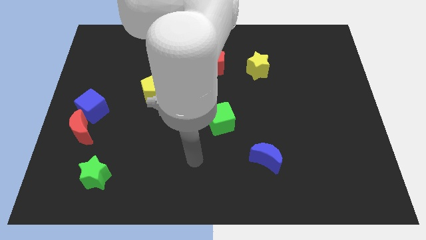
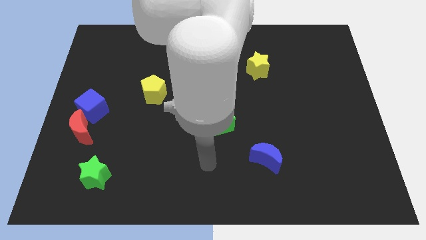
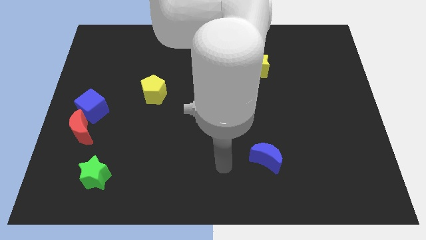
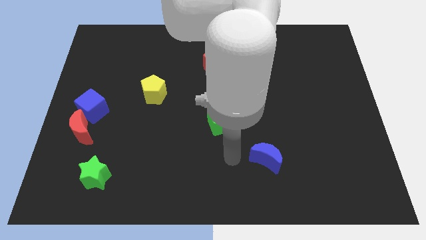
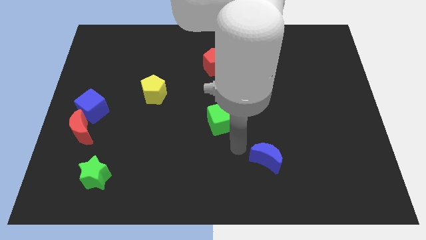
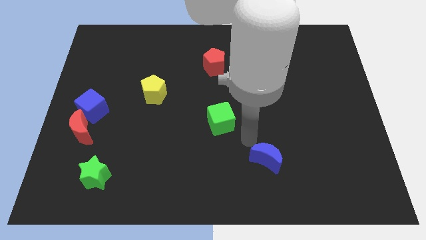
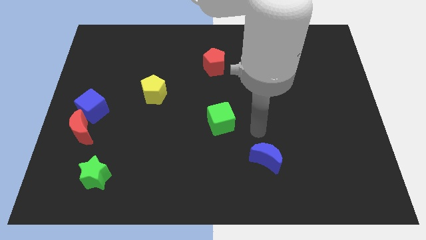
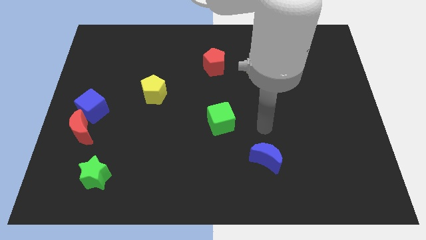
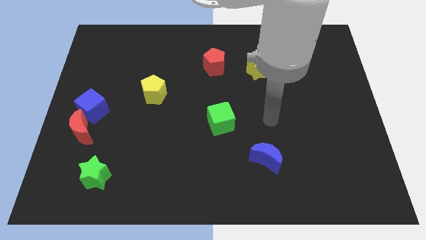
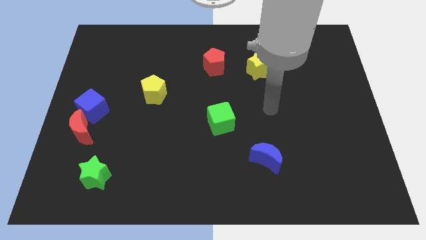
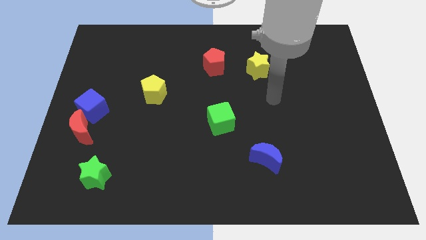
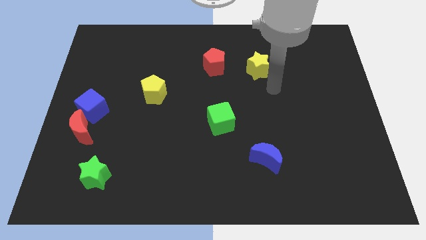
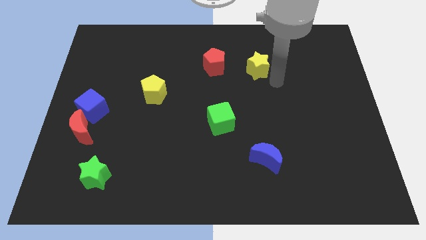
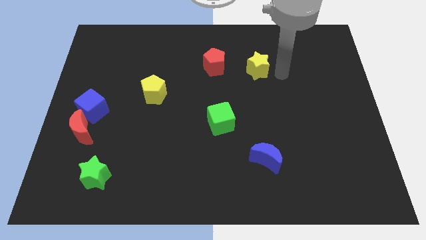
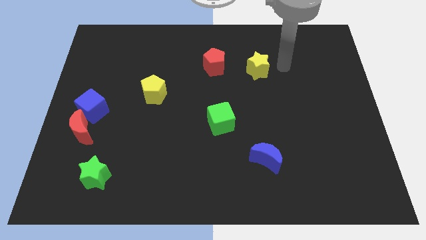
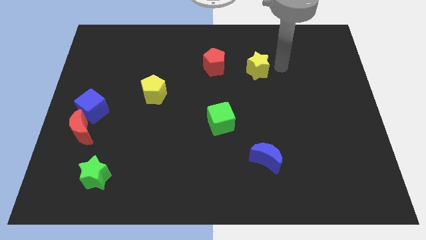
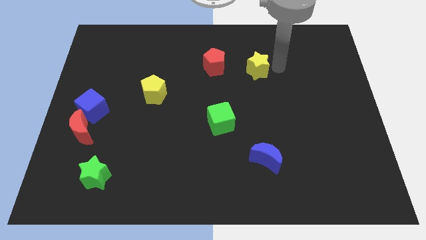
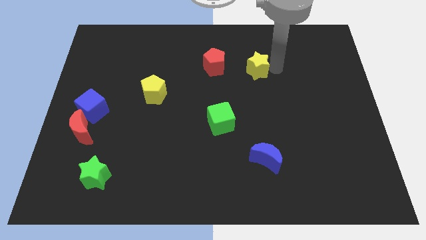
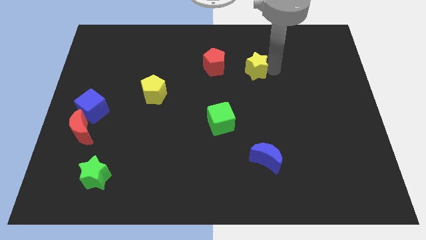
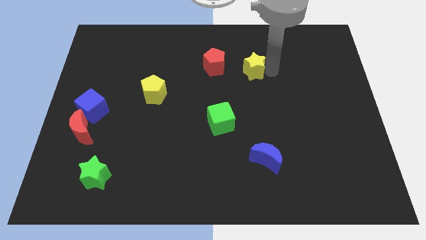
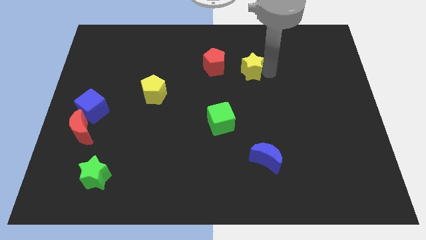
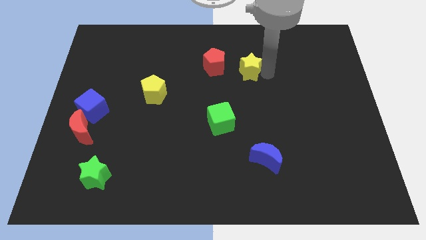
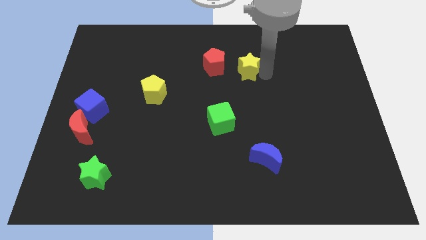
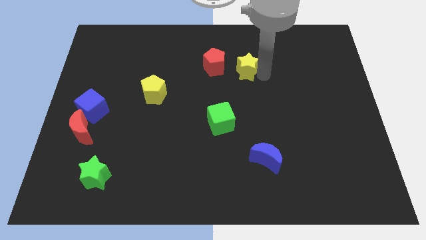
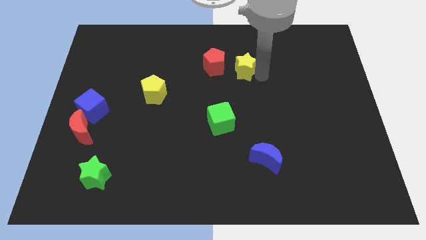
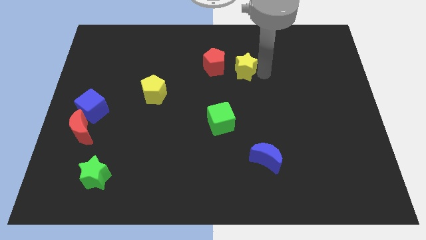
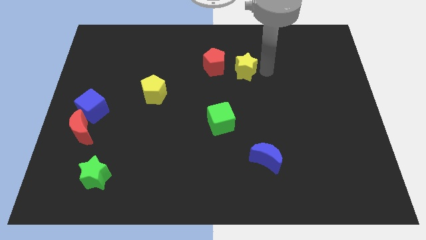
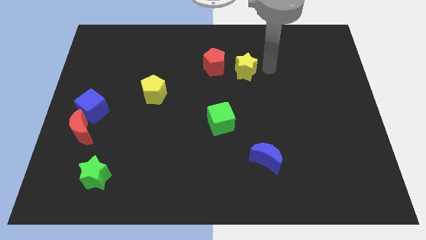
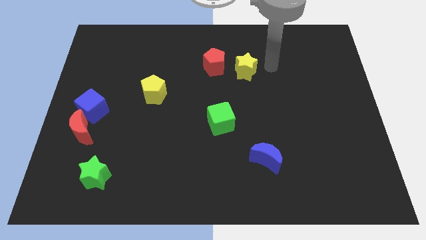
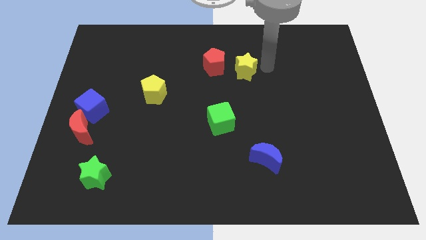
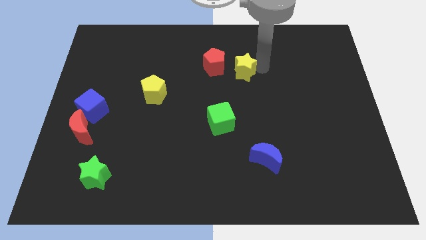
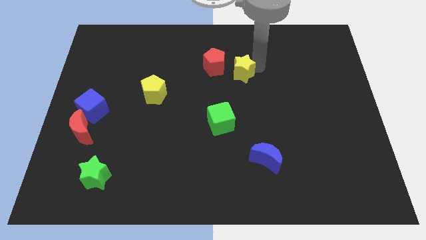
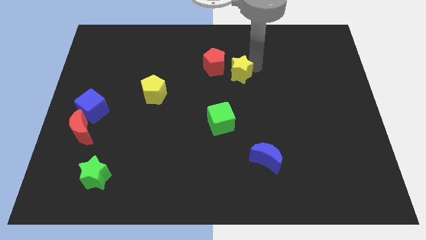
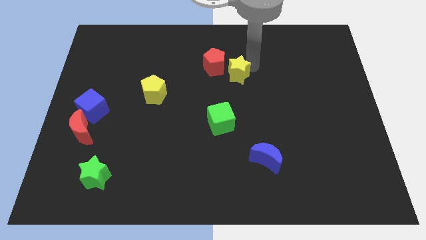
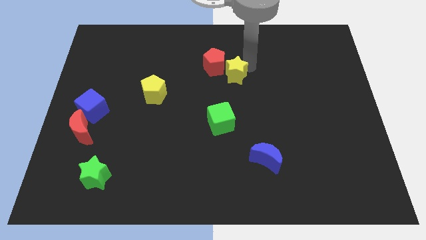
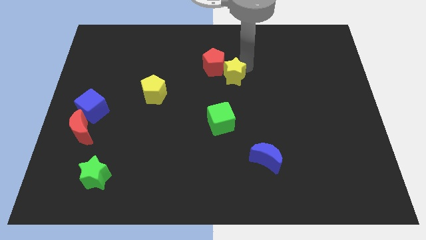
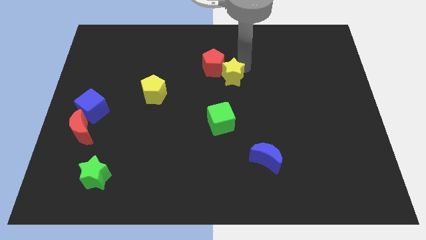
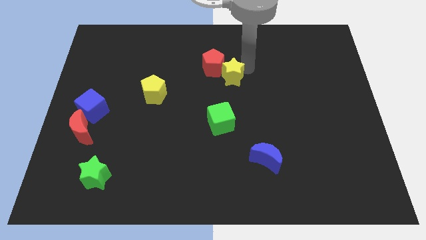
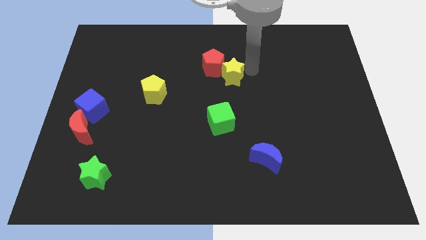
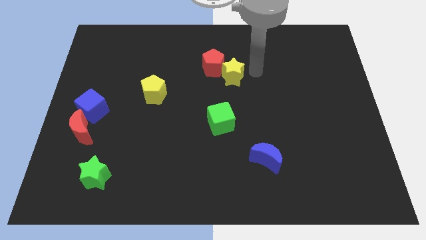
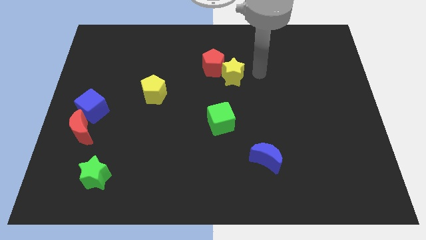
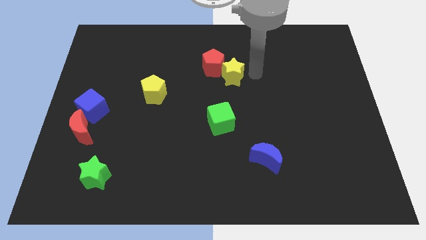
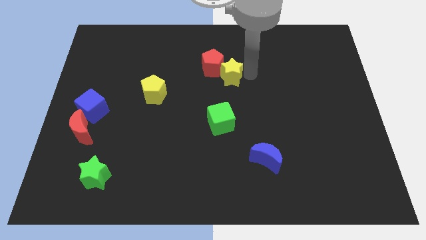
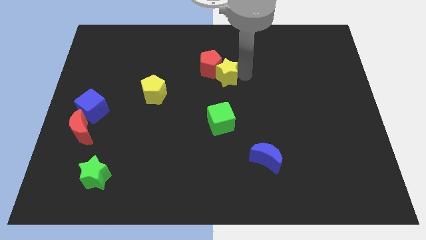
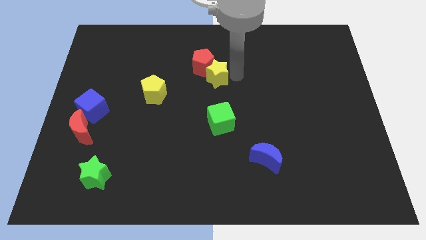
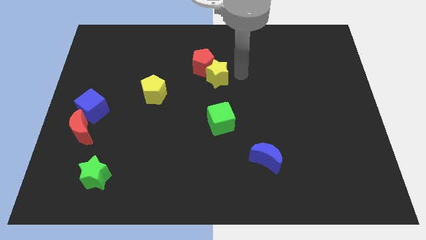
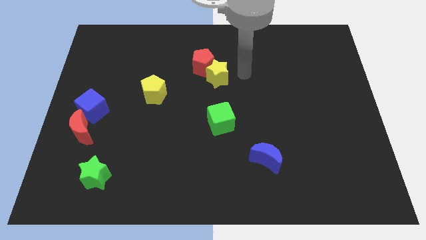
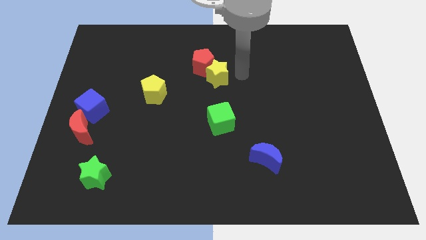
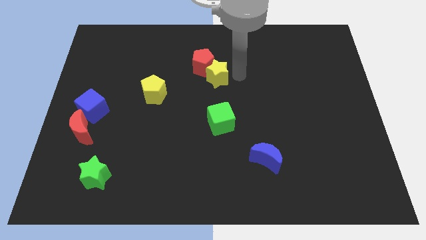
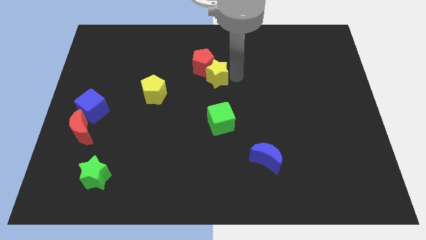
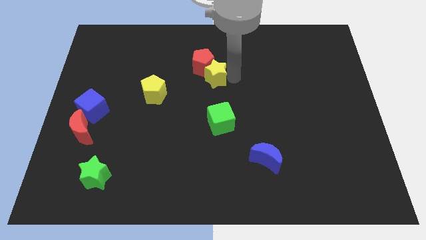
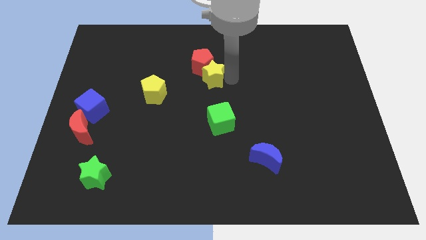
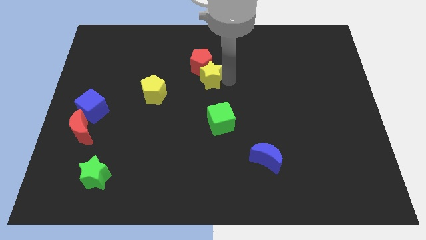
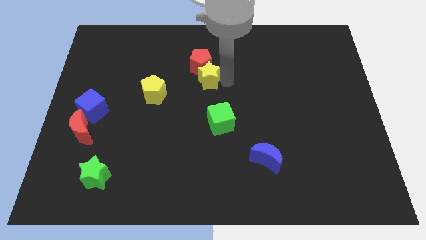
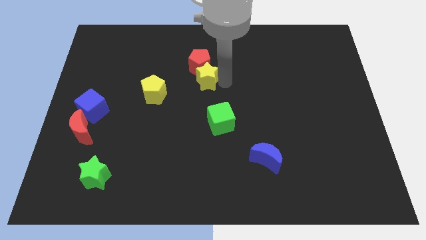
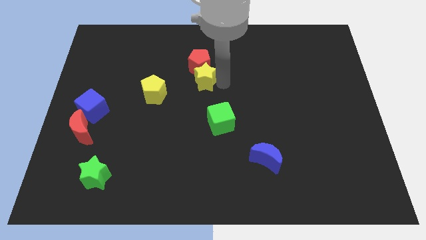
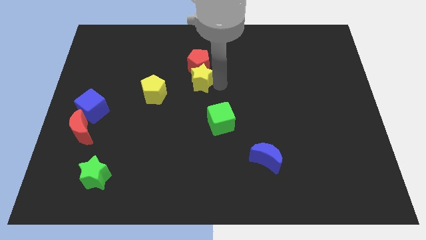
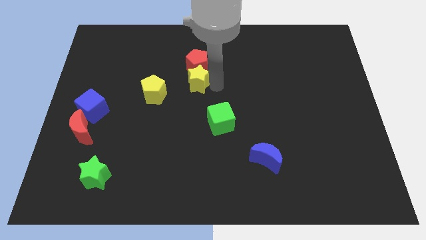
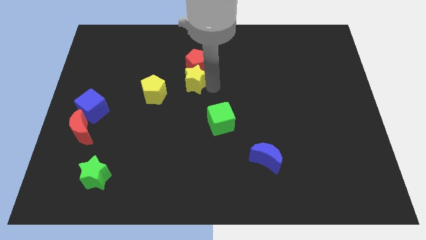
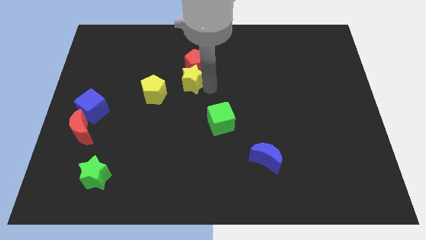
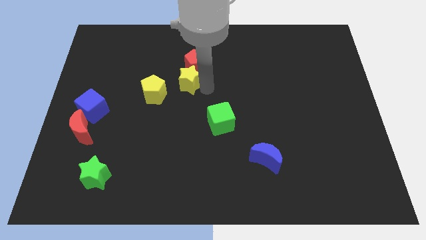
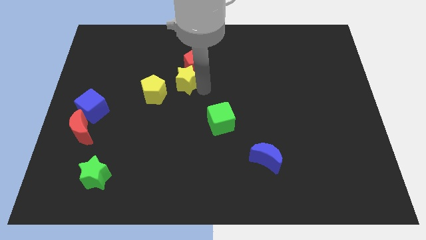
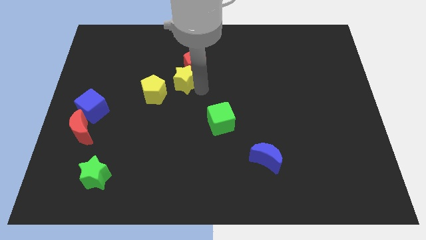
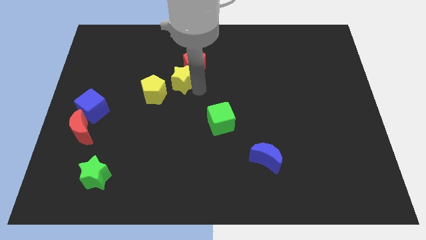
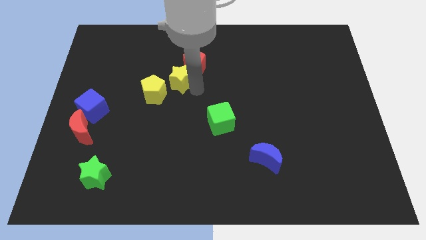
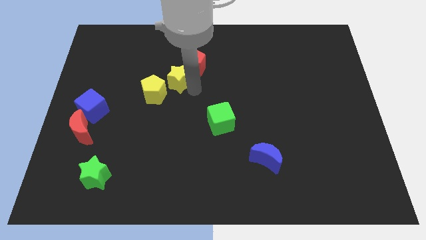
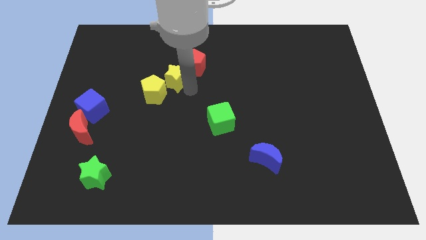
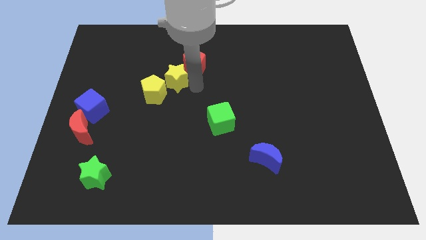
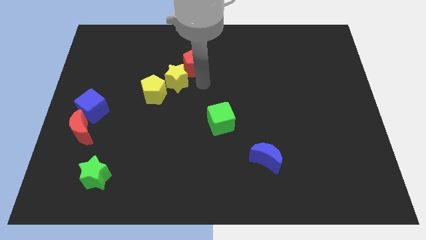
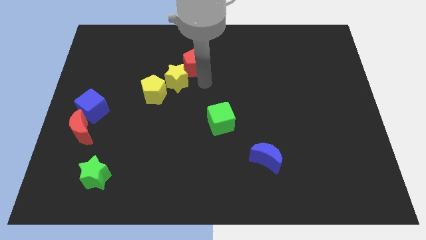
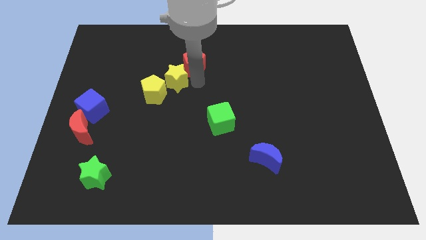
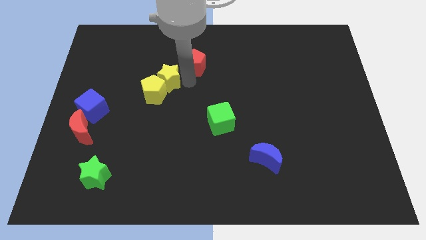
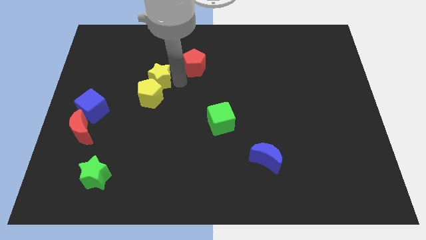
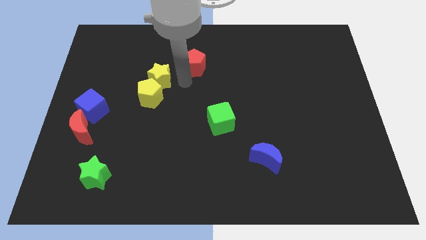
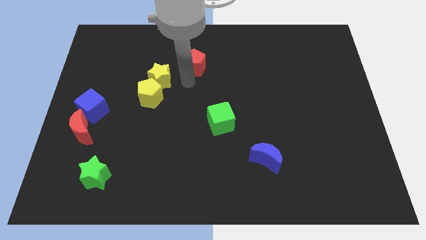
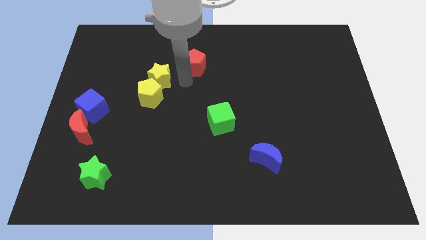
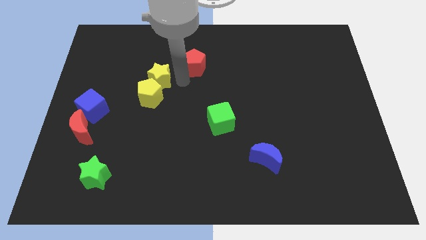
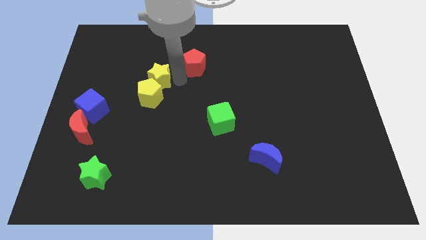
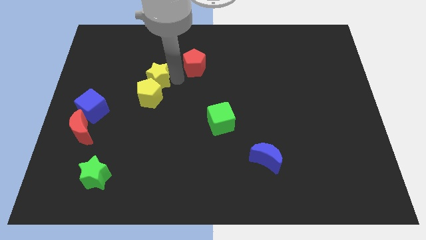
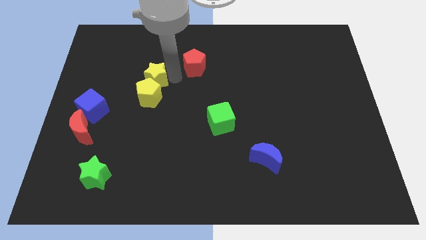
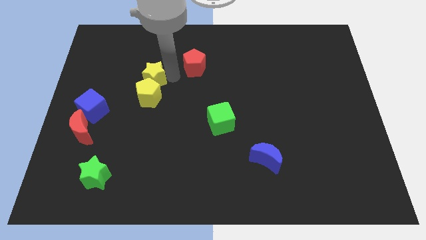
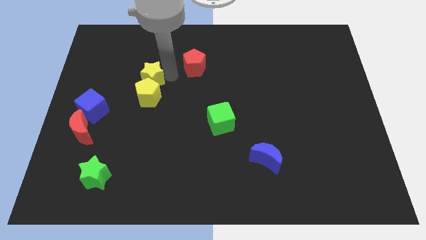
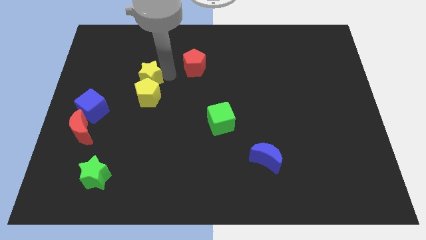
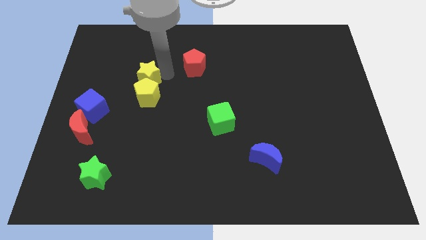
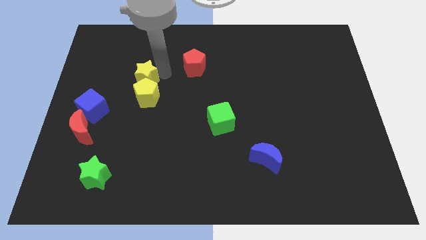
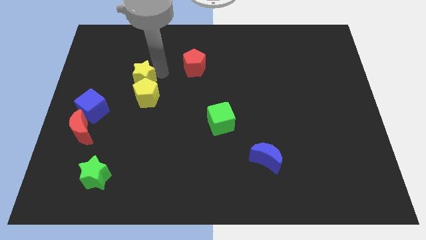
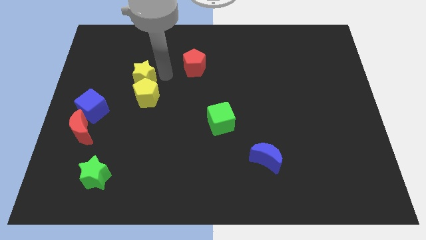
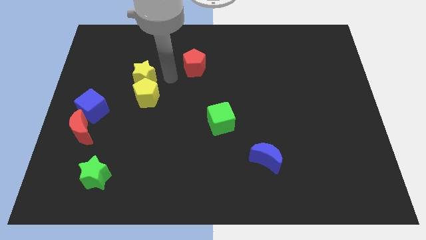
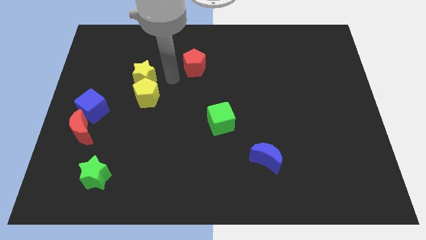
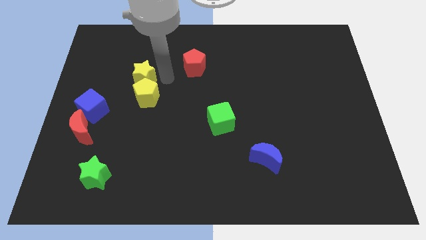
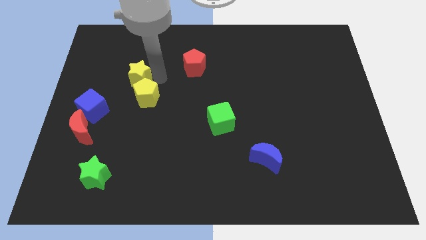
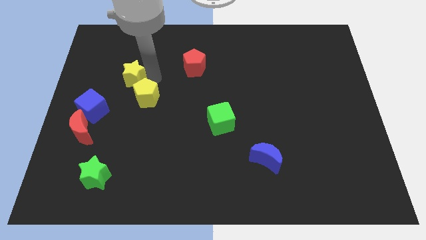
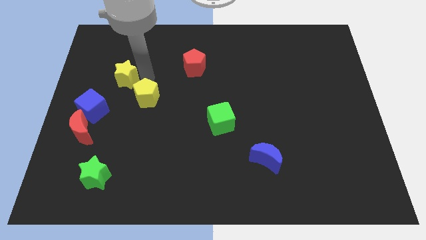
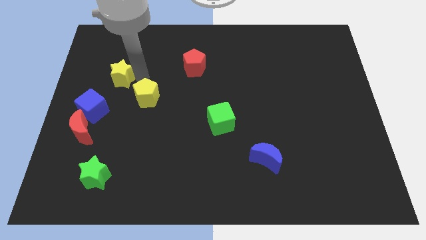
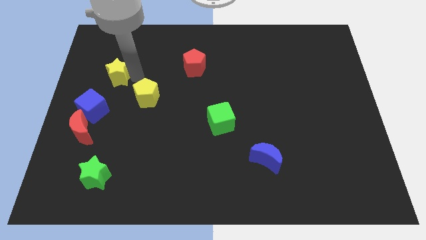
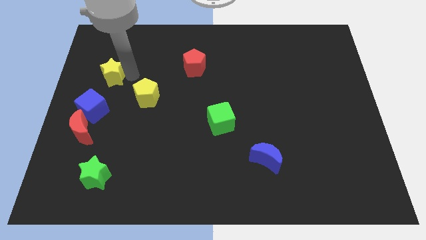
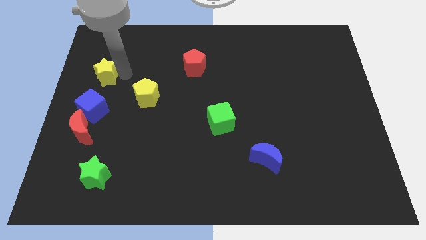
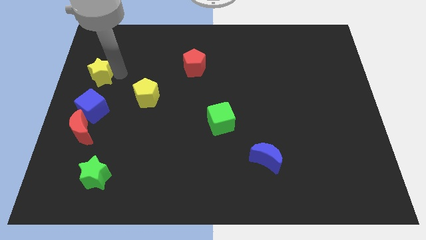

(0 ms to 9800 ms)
slide the yellow star to the center left
